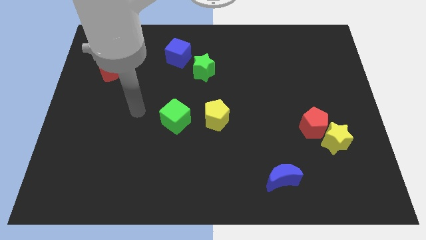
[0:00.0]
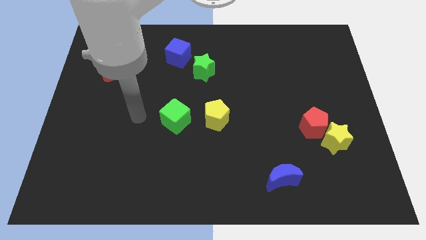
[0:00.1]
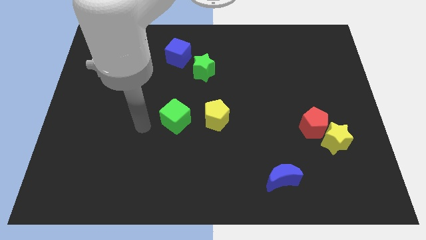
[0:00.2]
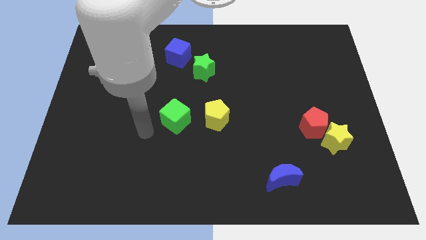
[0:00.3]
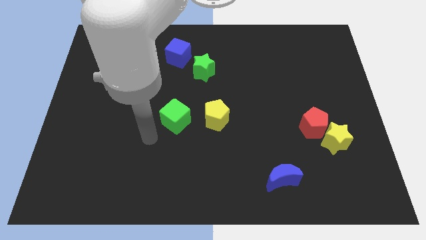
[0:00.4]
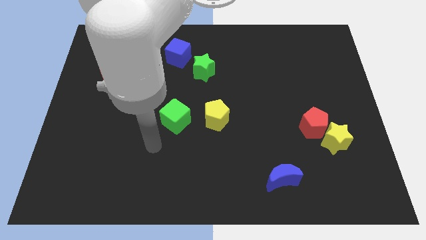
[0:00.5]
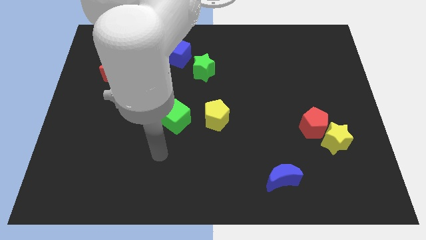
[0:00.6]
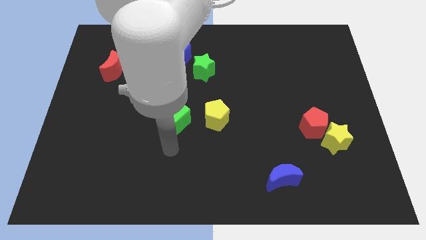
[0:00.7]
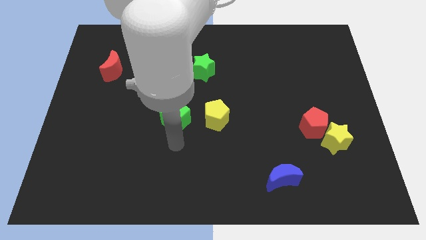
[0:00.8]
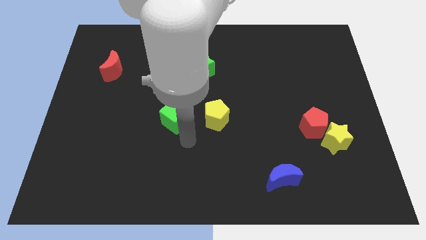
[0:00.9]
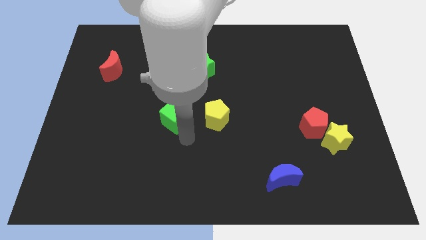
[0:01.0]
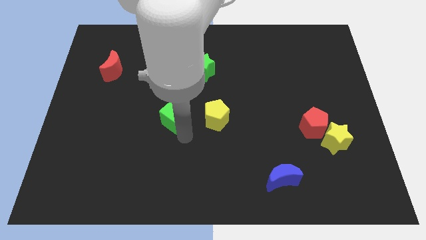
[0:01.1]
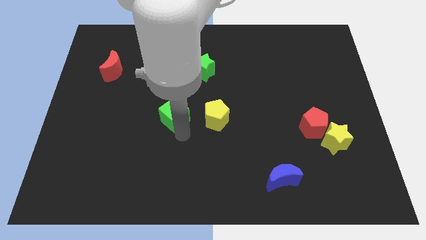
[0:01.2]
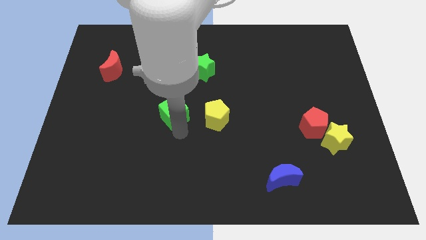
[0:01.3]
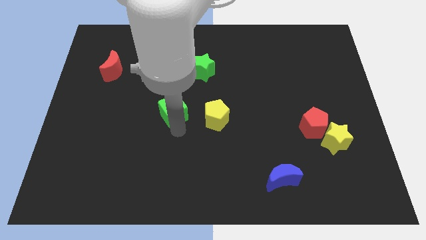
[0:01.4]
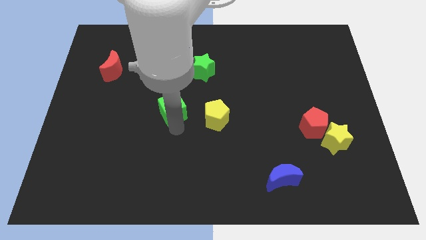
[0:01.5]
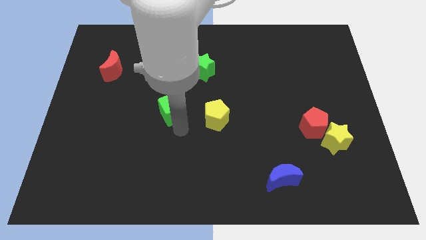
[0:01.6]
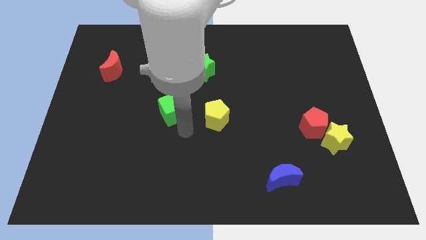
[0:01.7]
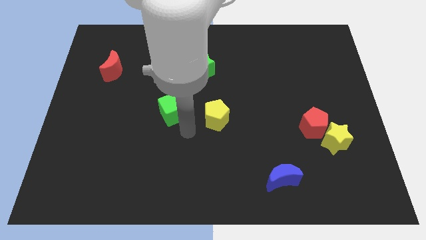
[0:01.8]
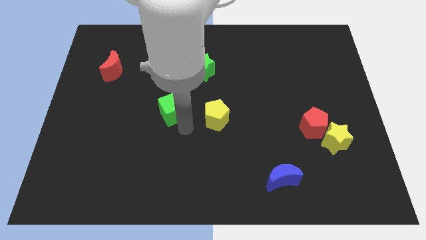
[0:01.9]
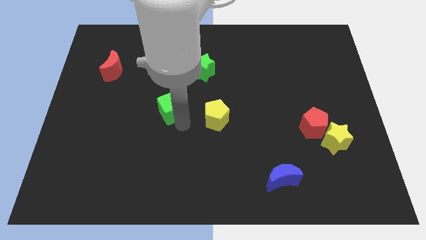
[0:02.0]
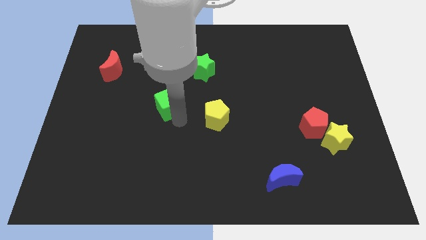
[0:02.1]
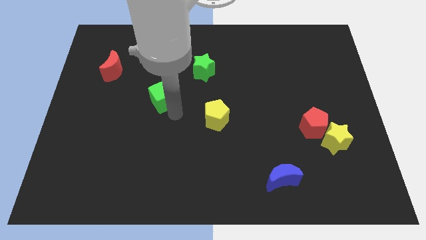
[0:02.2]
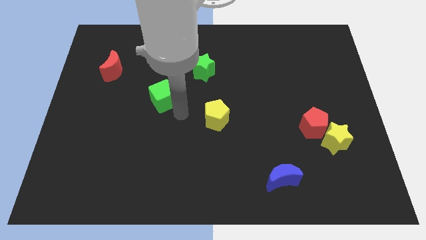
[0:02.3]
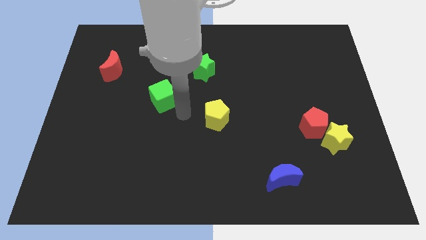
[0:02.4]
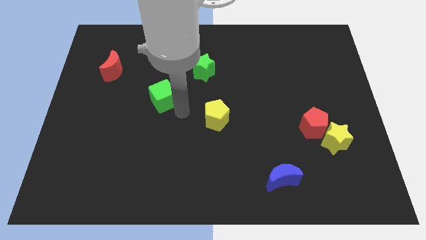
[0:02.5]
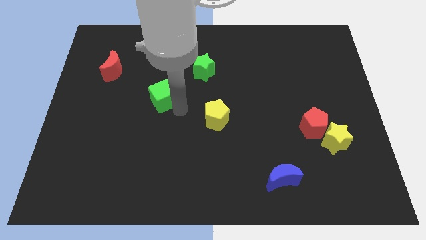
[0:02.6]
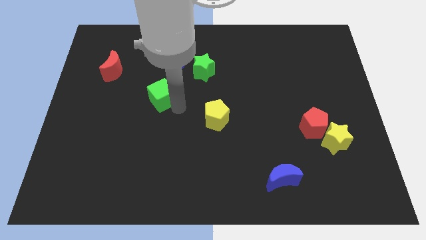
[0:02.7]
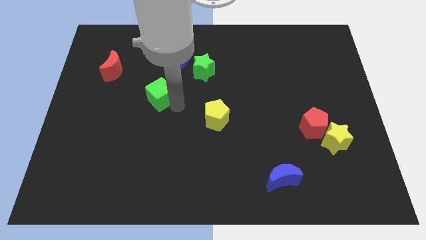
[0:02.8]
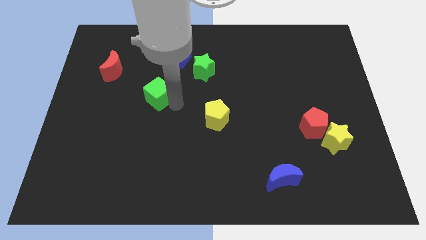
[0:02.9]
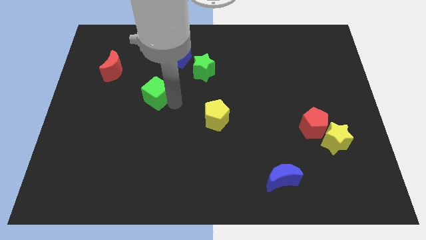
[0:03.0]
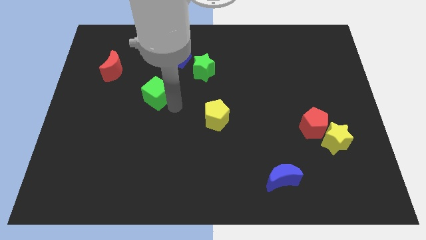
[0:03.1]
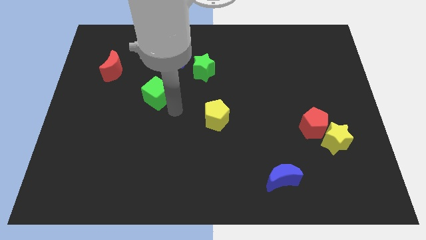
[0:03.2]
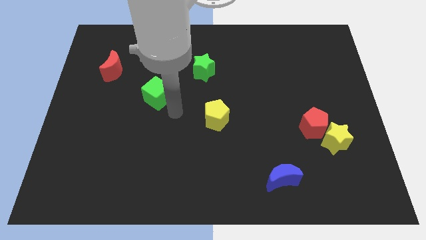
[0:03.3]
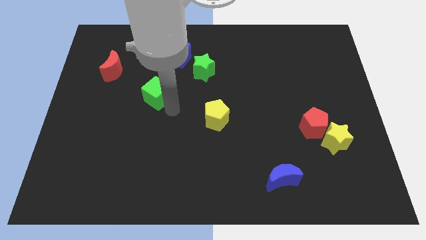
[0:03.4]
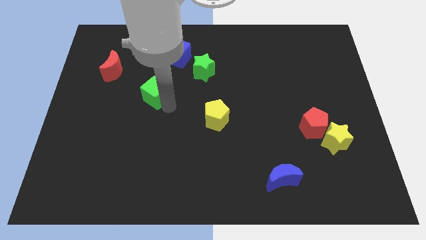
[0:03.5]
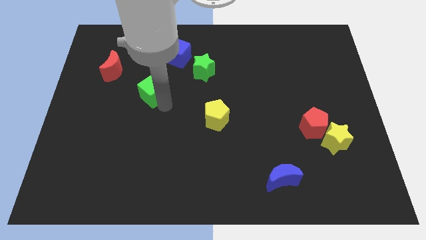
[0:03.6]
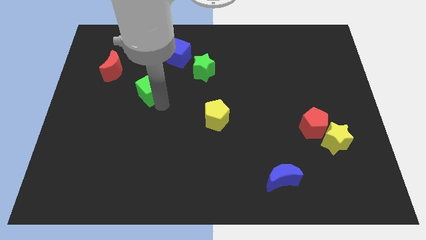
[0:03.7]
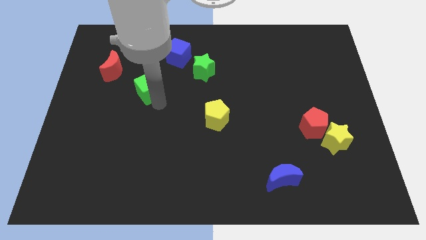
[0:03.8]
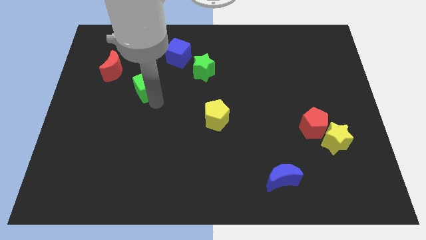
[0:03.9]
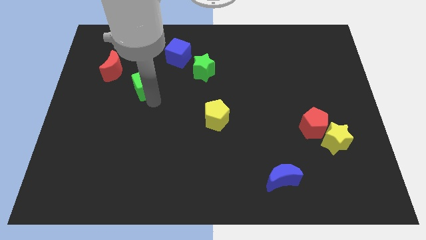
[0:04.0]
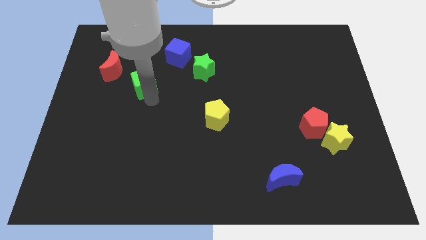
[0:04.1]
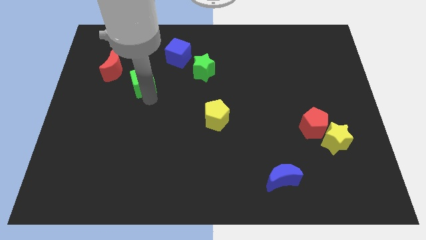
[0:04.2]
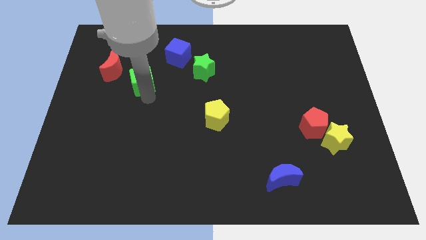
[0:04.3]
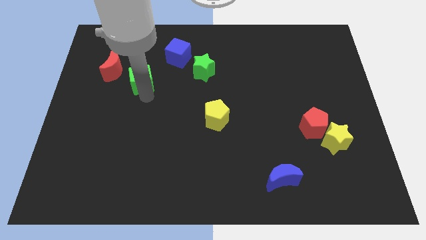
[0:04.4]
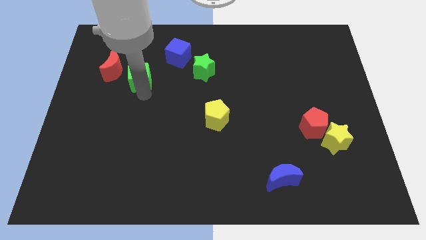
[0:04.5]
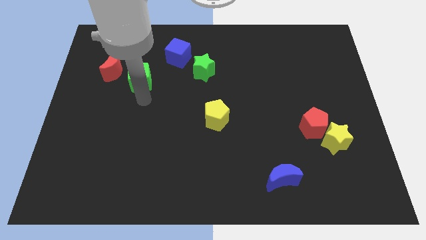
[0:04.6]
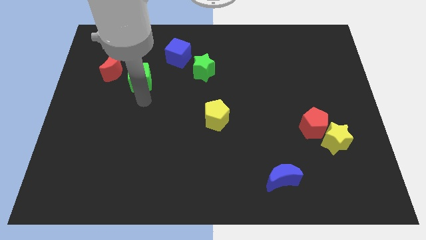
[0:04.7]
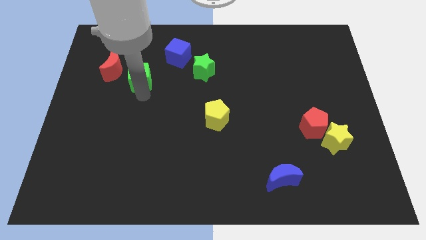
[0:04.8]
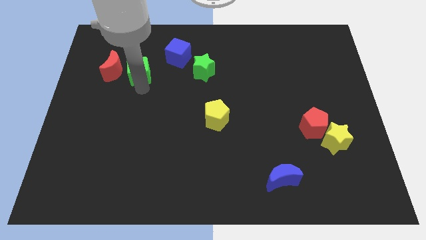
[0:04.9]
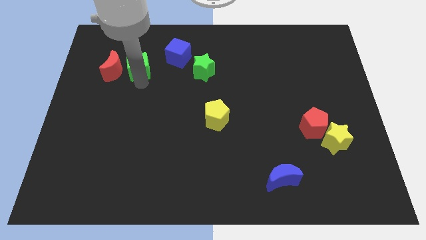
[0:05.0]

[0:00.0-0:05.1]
move the green cube to the top right of the red moon

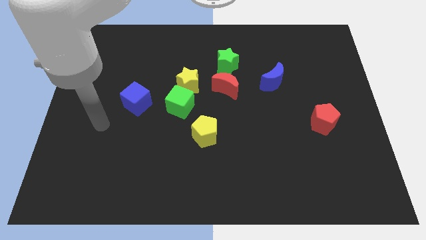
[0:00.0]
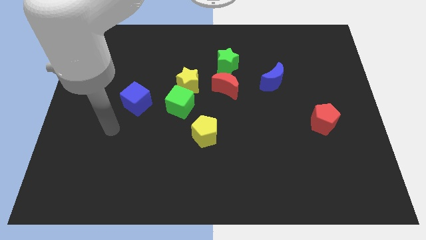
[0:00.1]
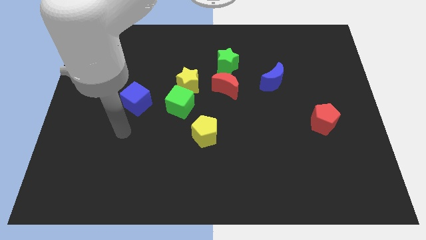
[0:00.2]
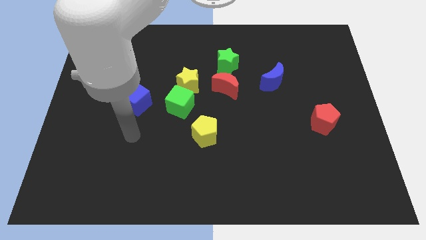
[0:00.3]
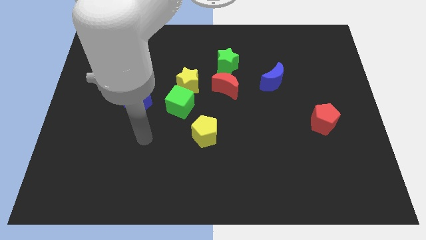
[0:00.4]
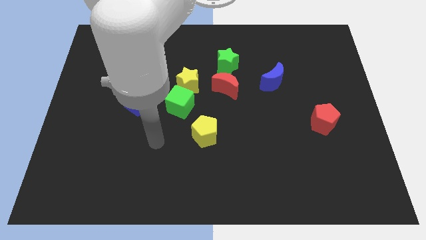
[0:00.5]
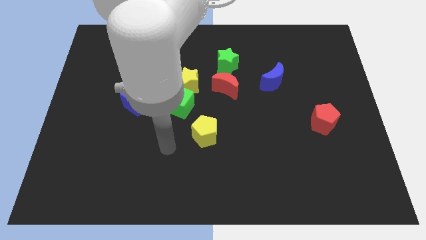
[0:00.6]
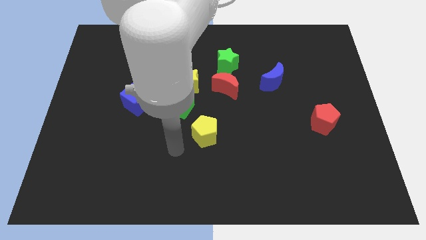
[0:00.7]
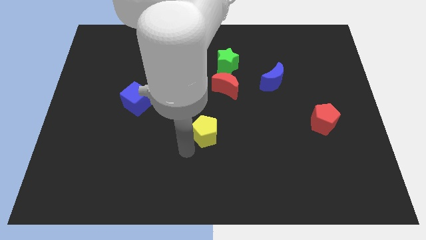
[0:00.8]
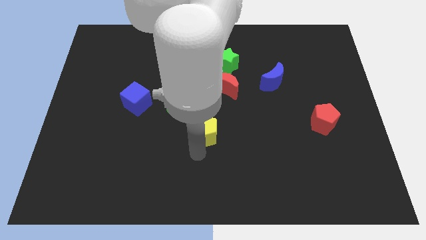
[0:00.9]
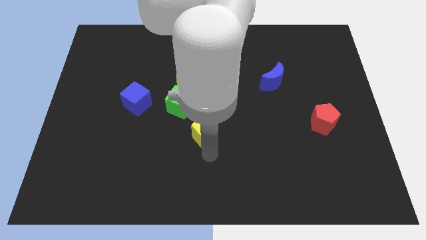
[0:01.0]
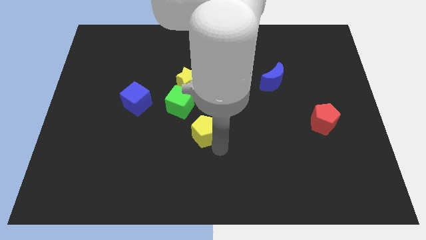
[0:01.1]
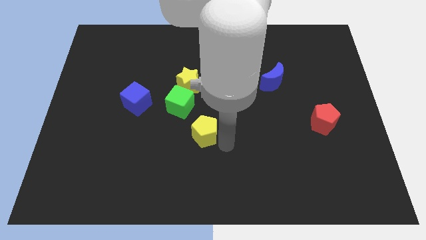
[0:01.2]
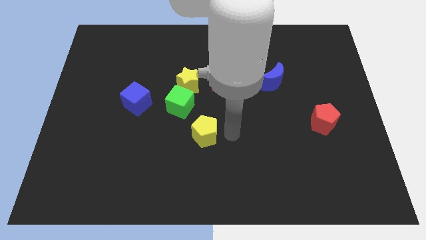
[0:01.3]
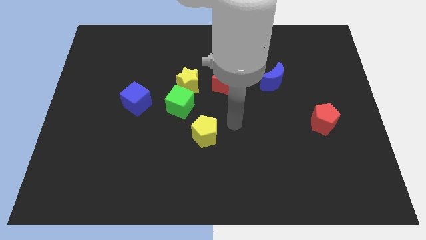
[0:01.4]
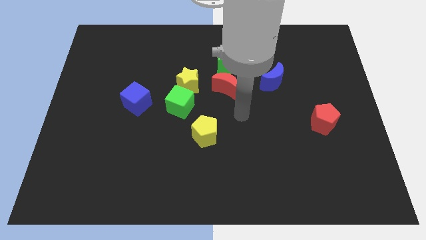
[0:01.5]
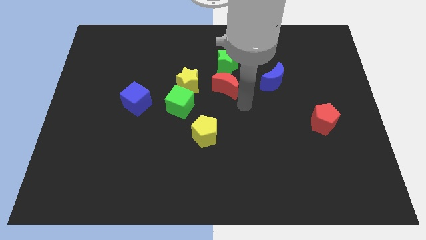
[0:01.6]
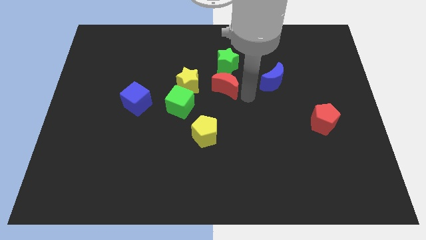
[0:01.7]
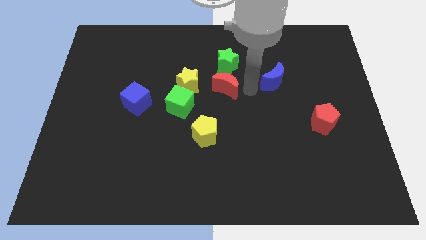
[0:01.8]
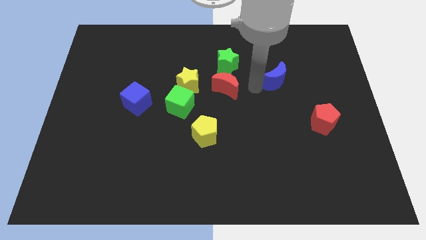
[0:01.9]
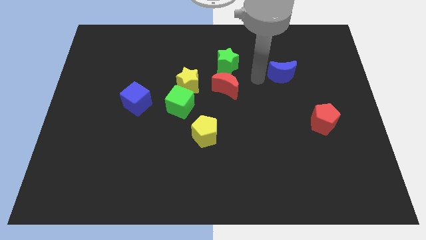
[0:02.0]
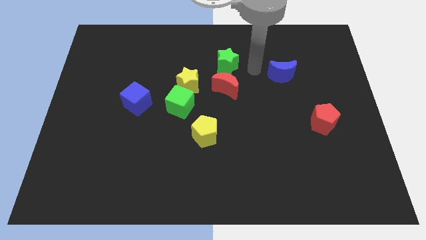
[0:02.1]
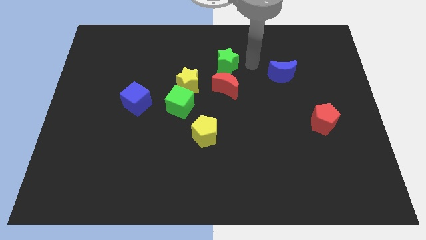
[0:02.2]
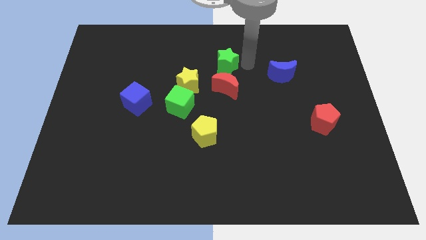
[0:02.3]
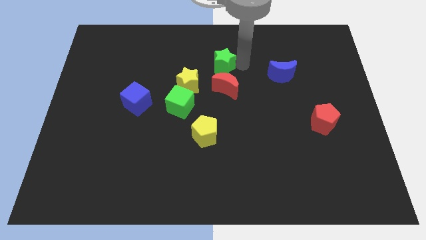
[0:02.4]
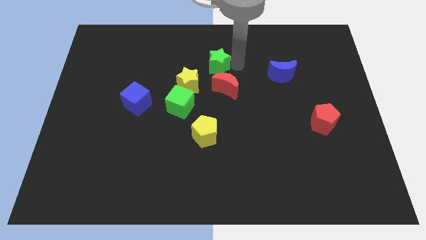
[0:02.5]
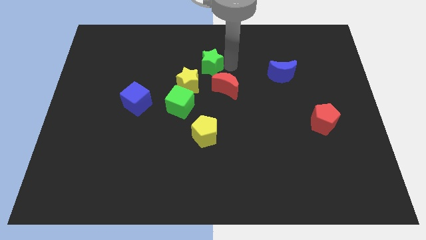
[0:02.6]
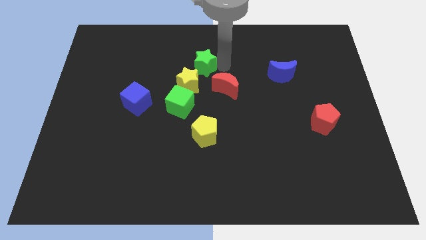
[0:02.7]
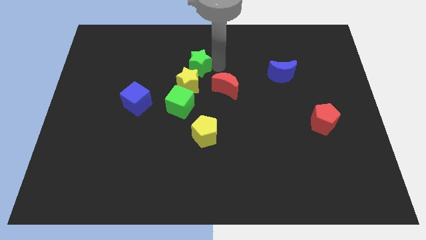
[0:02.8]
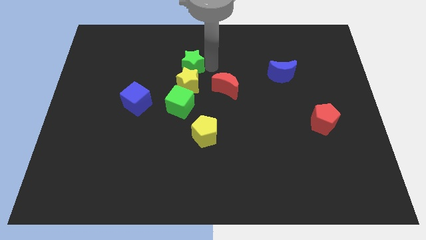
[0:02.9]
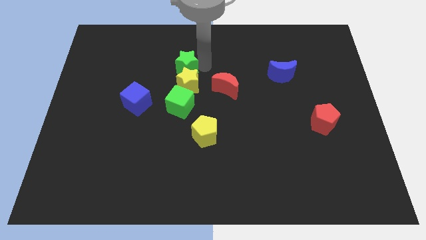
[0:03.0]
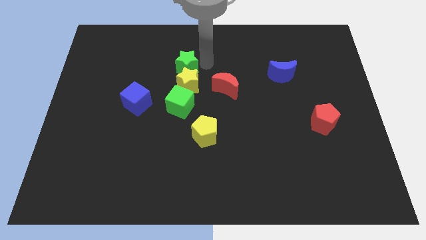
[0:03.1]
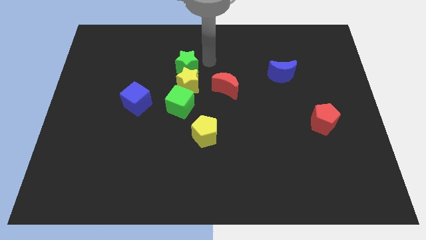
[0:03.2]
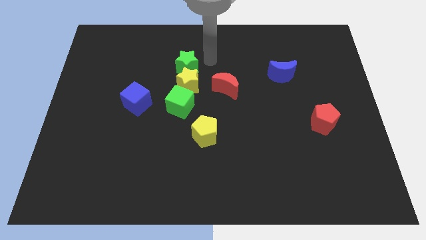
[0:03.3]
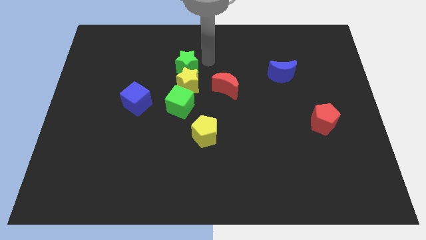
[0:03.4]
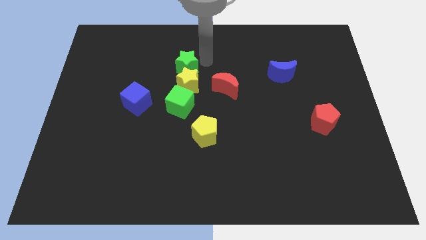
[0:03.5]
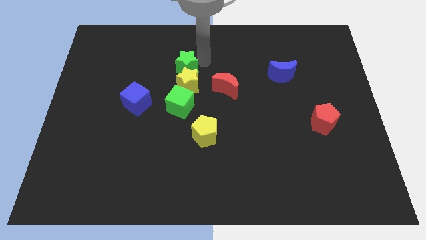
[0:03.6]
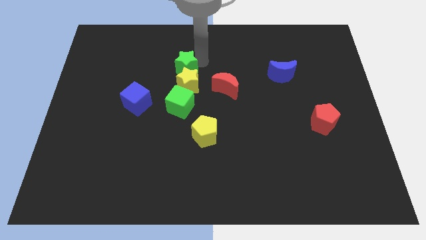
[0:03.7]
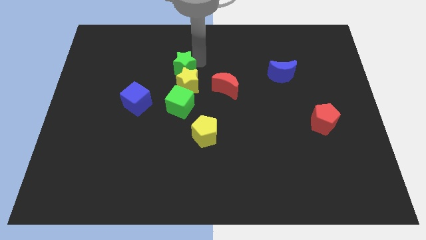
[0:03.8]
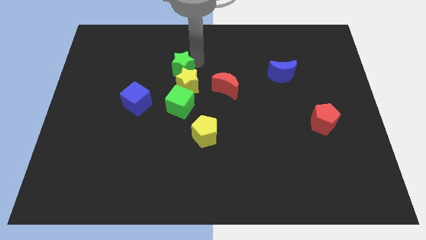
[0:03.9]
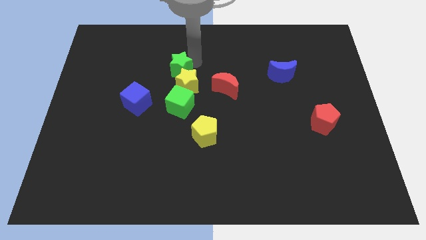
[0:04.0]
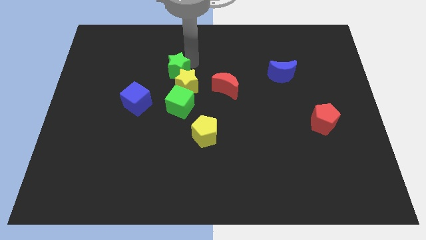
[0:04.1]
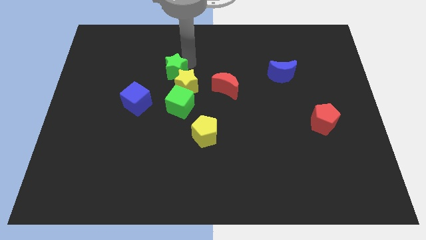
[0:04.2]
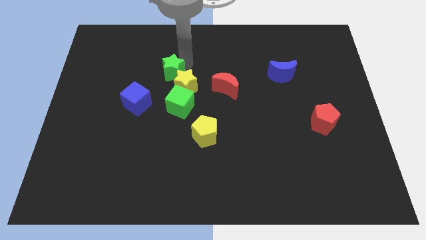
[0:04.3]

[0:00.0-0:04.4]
push the green star diagonally up and to the right of the blue cube
